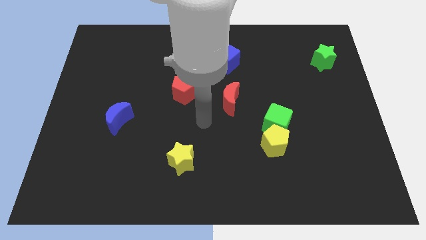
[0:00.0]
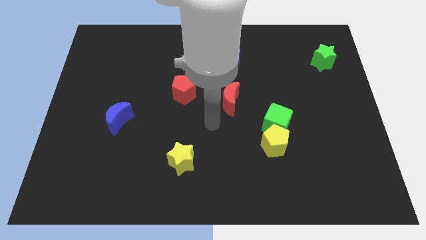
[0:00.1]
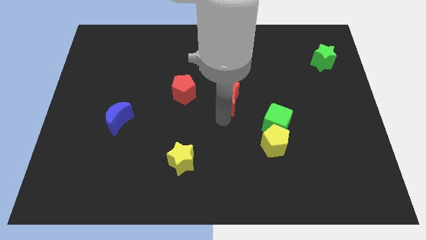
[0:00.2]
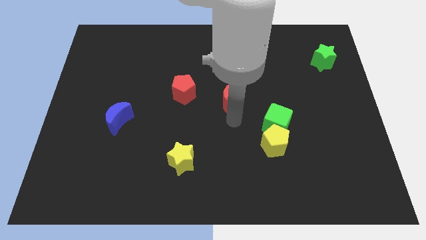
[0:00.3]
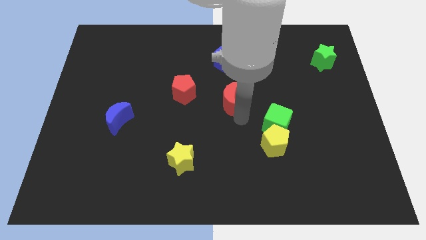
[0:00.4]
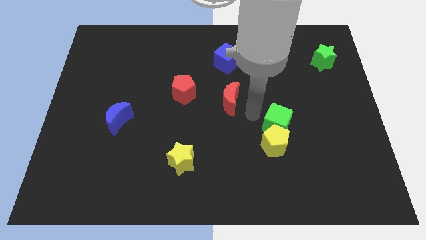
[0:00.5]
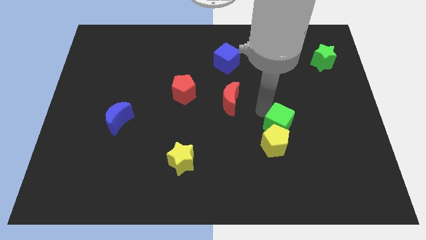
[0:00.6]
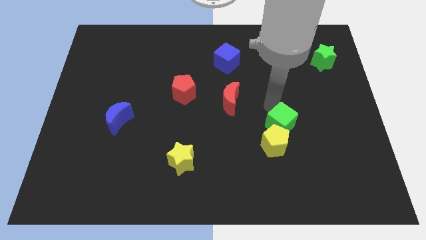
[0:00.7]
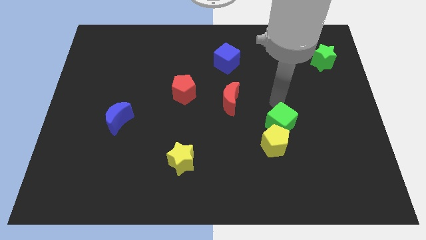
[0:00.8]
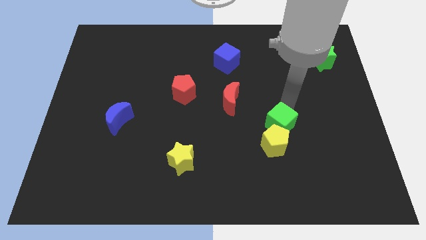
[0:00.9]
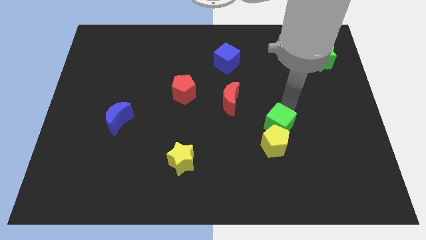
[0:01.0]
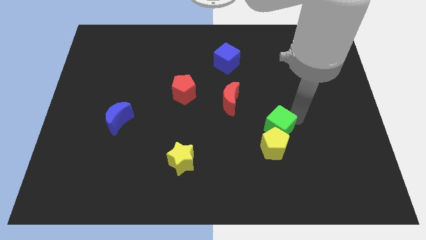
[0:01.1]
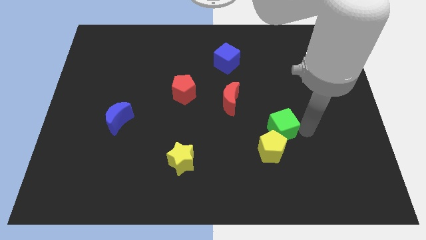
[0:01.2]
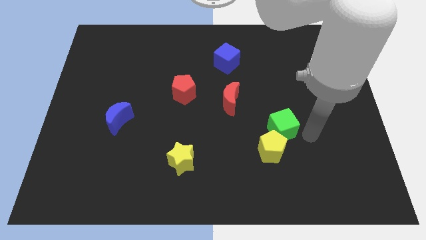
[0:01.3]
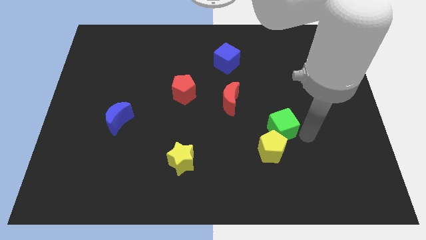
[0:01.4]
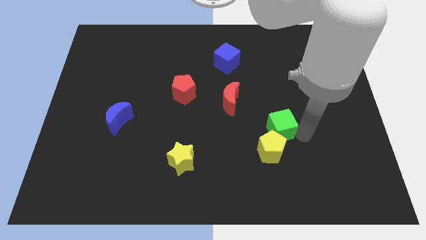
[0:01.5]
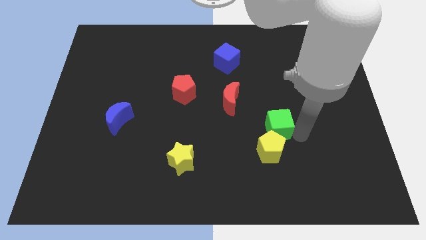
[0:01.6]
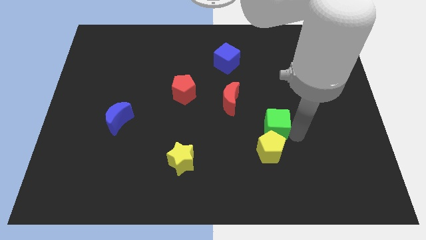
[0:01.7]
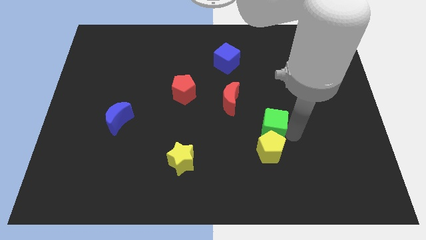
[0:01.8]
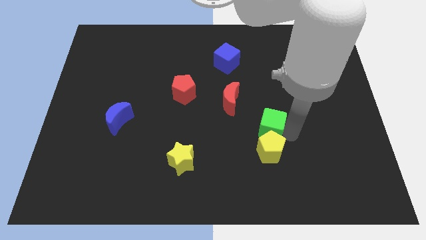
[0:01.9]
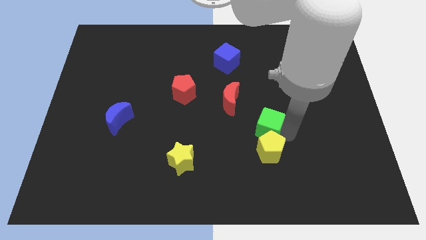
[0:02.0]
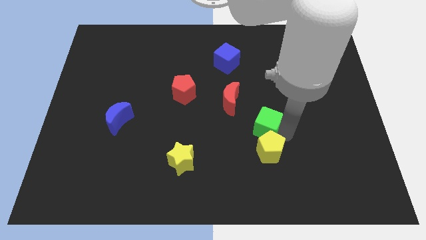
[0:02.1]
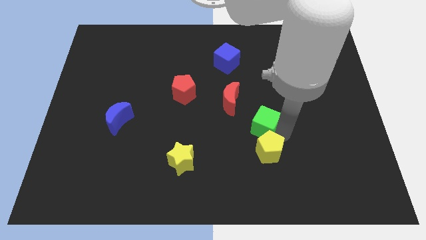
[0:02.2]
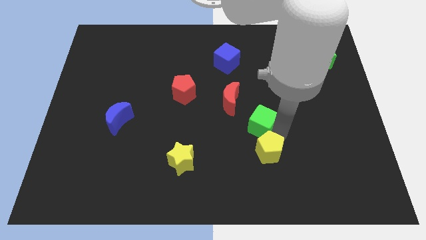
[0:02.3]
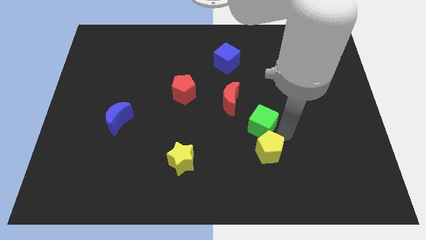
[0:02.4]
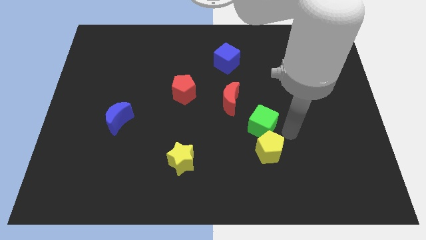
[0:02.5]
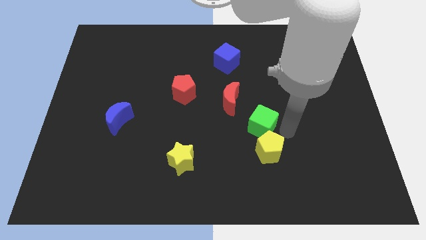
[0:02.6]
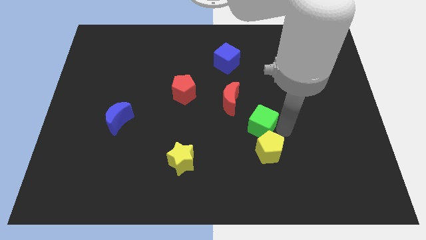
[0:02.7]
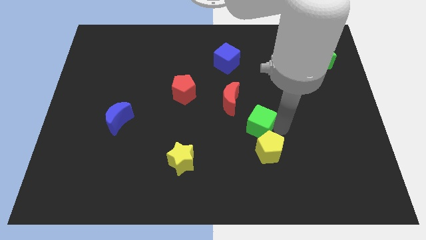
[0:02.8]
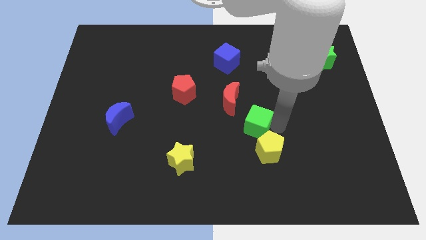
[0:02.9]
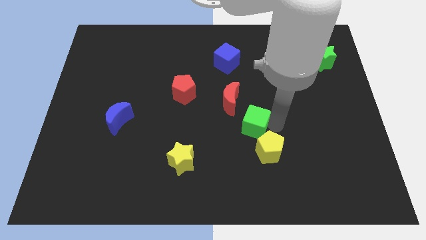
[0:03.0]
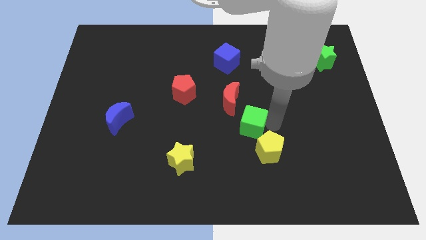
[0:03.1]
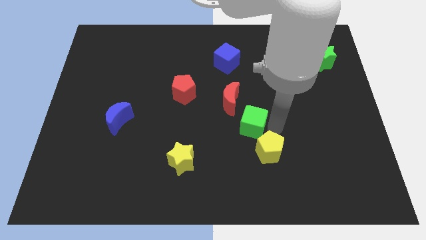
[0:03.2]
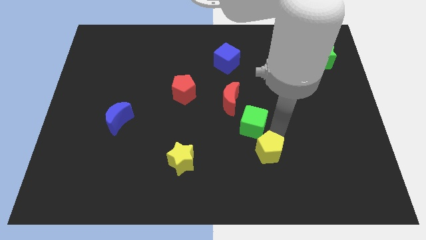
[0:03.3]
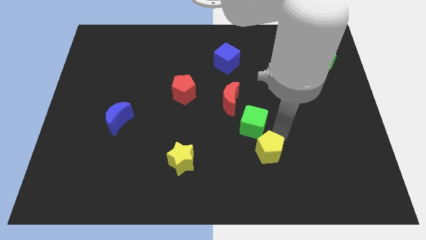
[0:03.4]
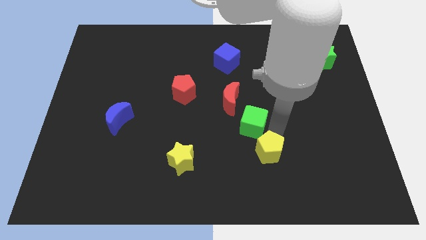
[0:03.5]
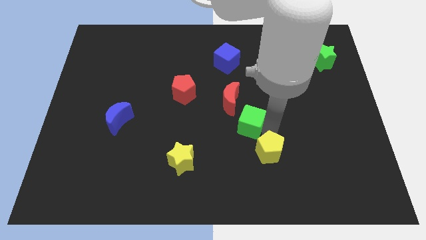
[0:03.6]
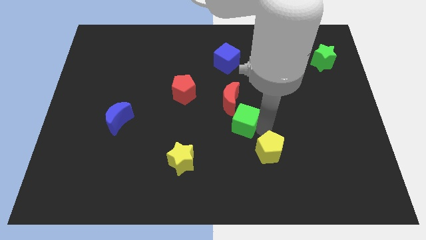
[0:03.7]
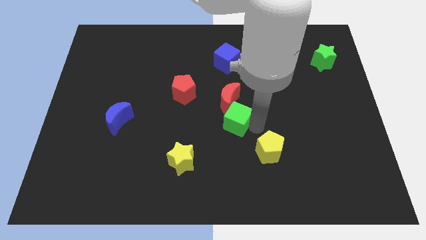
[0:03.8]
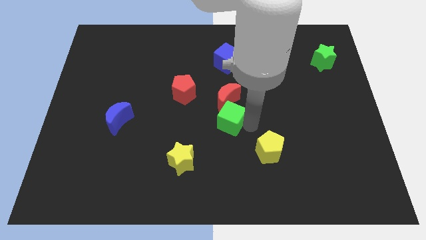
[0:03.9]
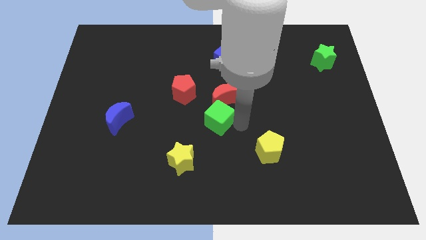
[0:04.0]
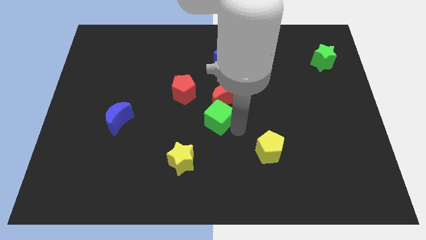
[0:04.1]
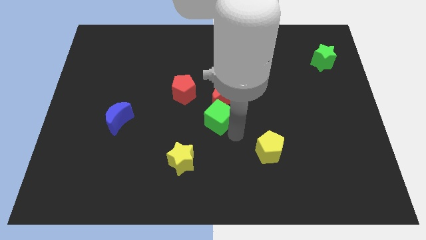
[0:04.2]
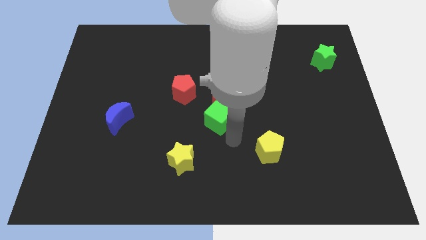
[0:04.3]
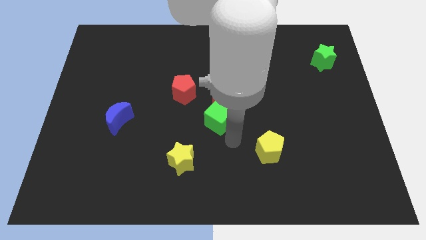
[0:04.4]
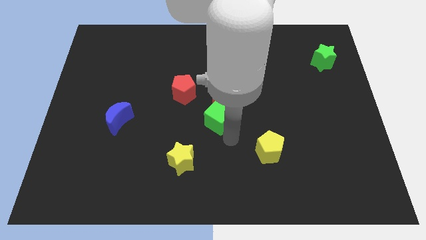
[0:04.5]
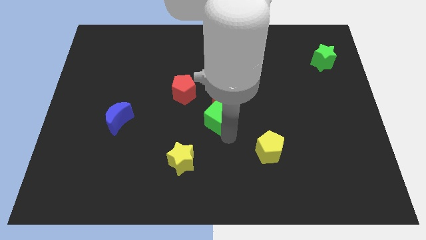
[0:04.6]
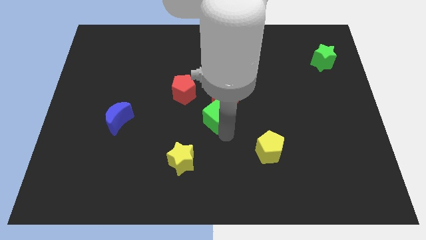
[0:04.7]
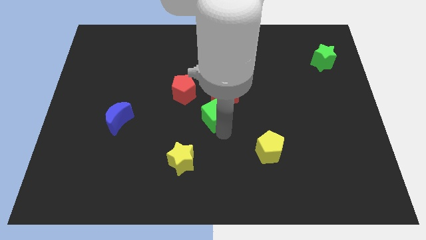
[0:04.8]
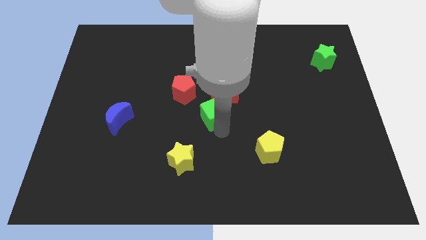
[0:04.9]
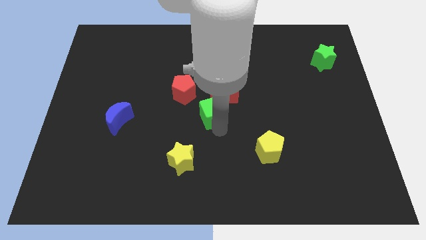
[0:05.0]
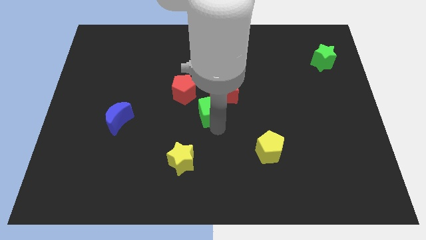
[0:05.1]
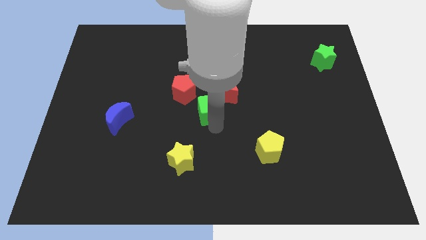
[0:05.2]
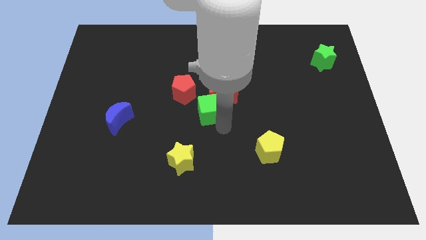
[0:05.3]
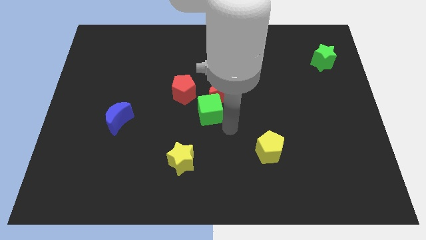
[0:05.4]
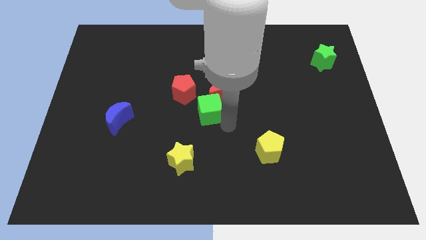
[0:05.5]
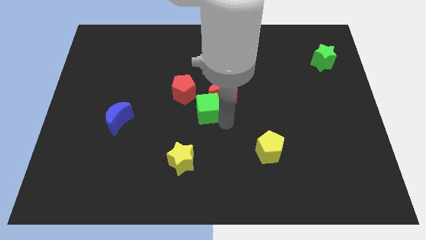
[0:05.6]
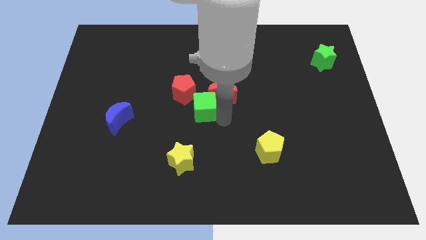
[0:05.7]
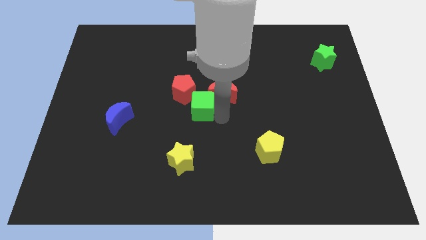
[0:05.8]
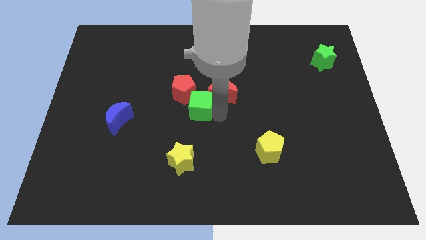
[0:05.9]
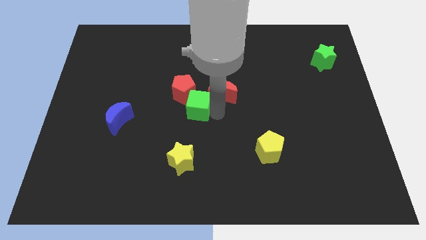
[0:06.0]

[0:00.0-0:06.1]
put the green cube to the red pentagon
